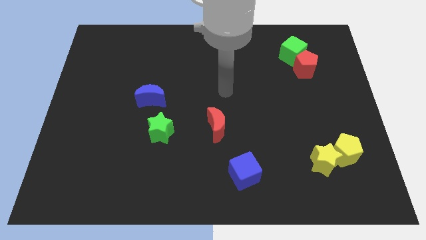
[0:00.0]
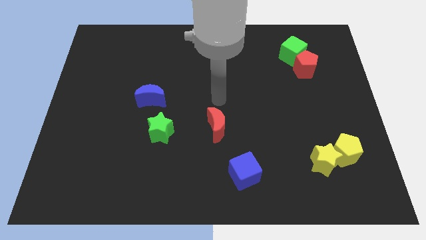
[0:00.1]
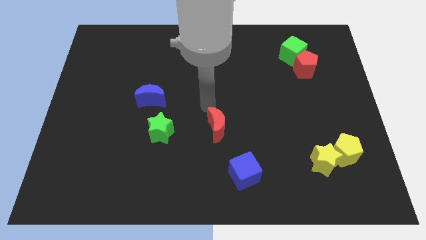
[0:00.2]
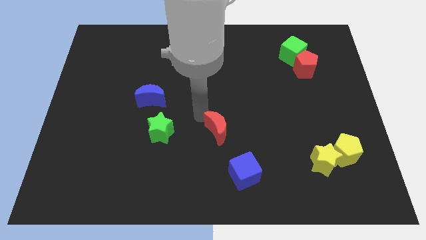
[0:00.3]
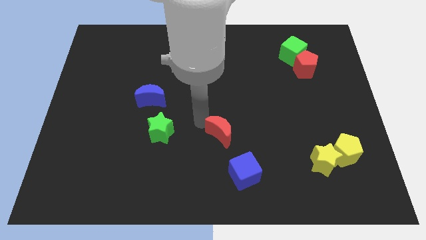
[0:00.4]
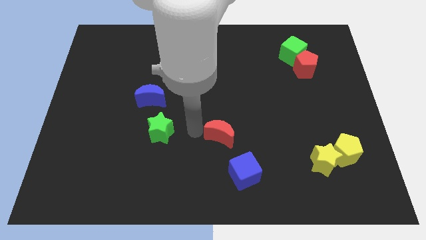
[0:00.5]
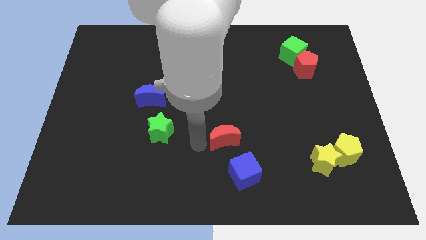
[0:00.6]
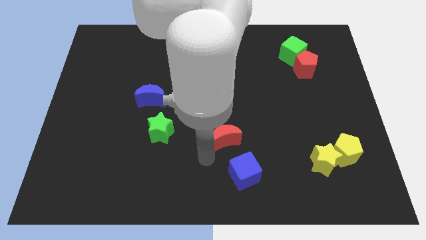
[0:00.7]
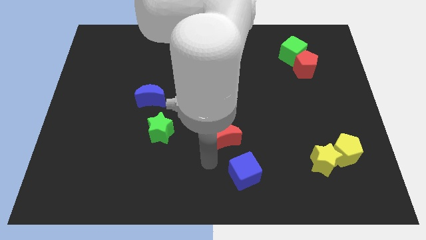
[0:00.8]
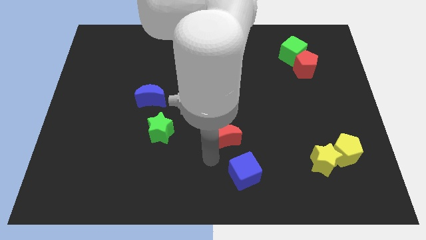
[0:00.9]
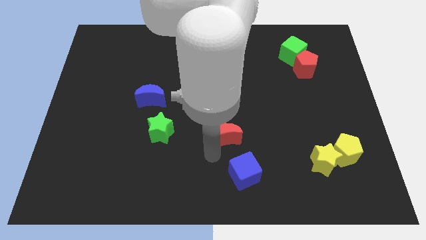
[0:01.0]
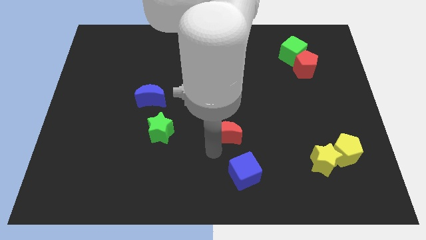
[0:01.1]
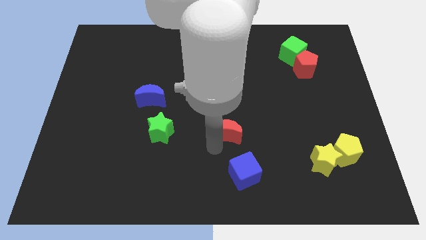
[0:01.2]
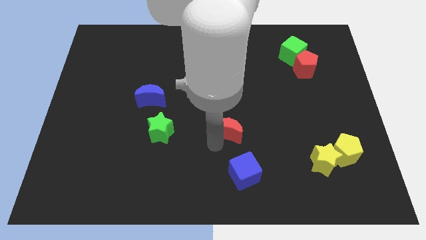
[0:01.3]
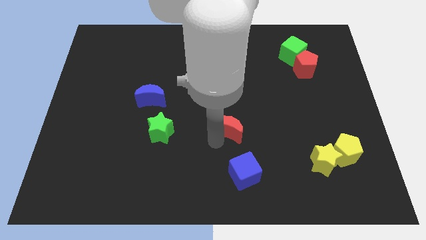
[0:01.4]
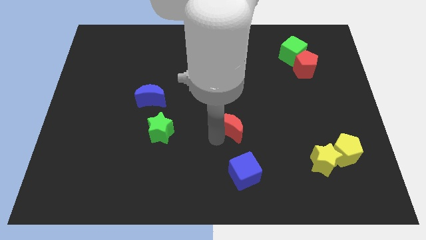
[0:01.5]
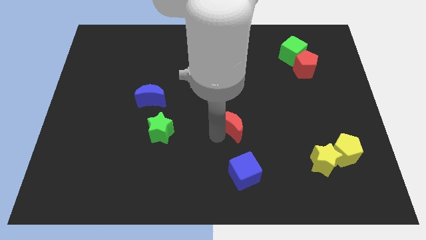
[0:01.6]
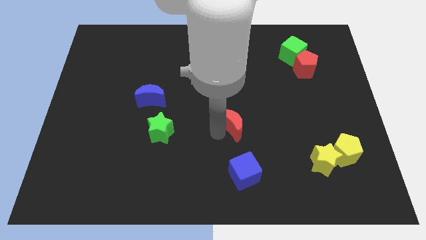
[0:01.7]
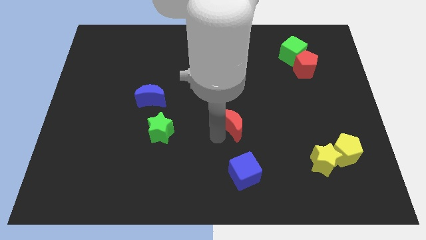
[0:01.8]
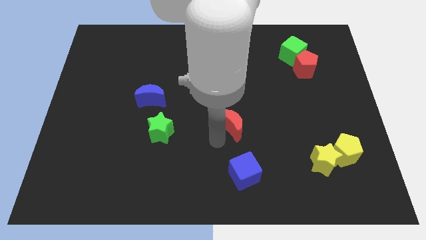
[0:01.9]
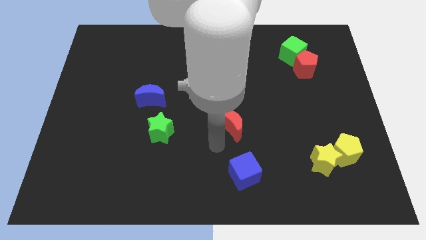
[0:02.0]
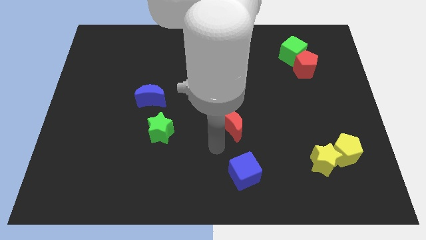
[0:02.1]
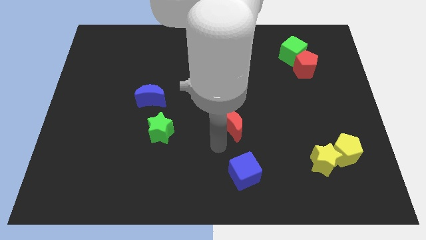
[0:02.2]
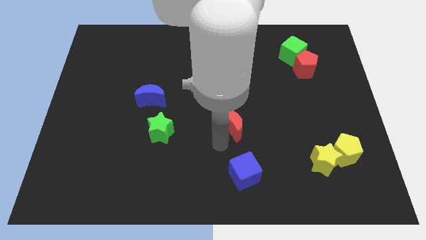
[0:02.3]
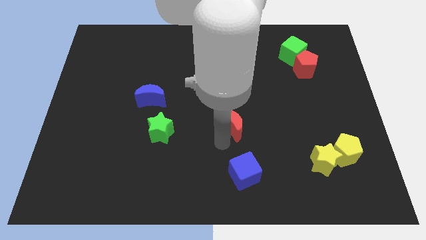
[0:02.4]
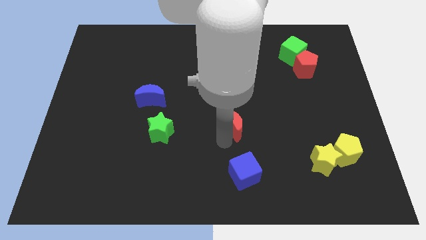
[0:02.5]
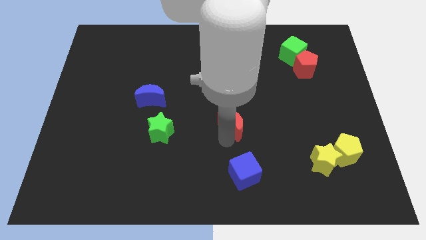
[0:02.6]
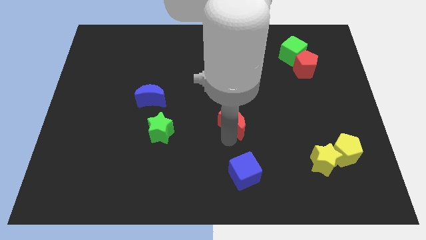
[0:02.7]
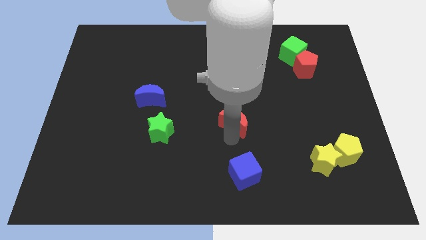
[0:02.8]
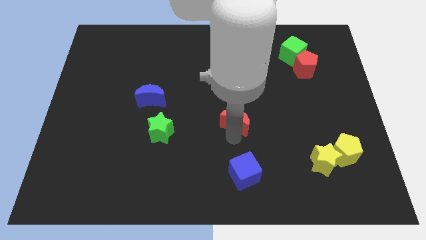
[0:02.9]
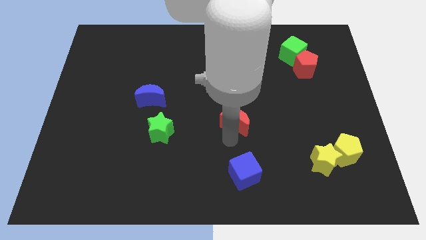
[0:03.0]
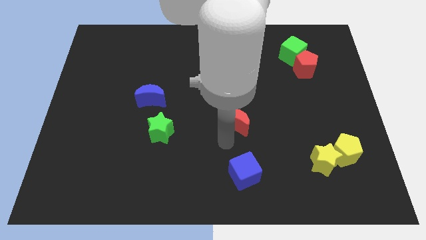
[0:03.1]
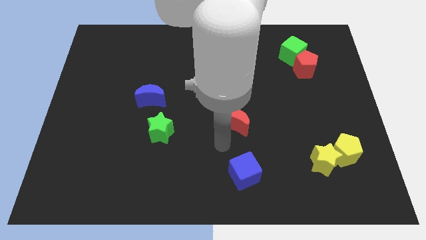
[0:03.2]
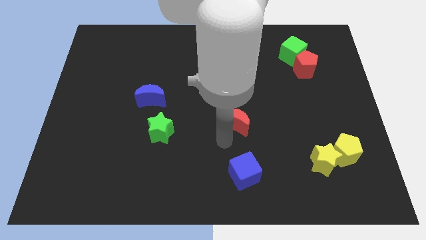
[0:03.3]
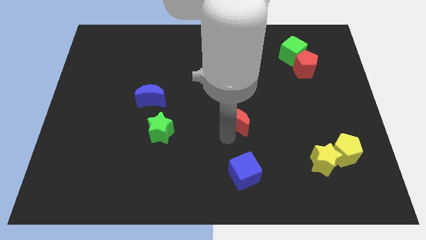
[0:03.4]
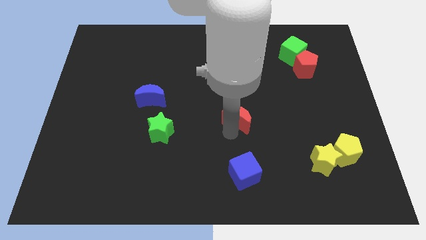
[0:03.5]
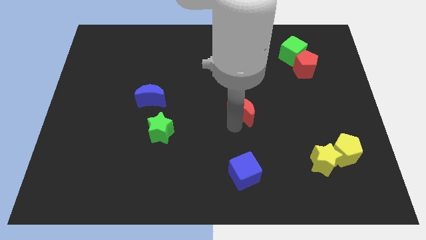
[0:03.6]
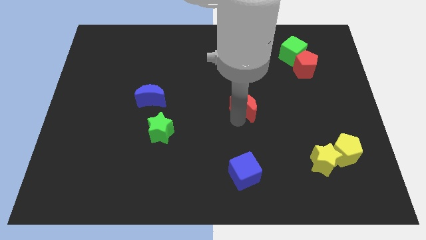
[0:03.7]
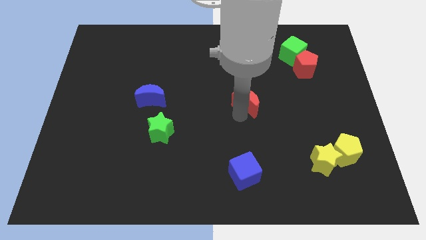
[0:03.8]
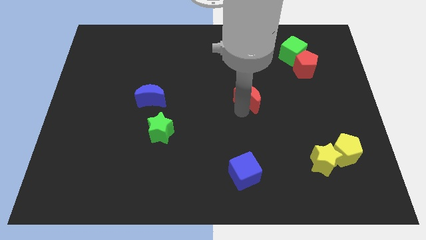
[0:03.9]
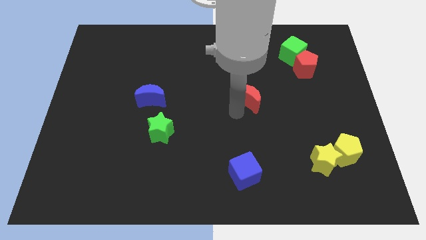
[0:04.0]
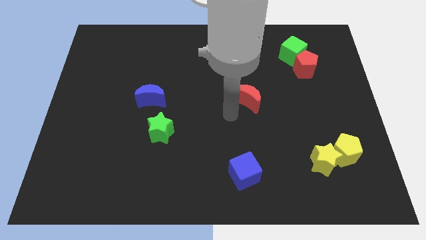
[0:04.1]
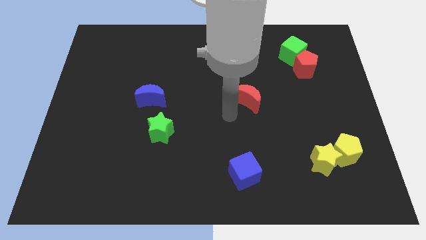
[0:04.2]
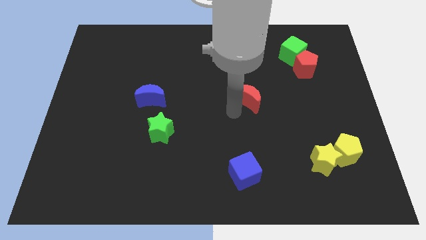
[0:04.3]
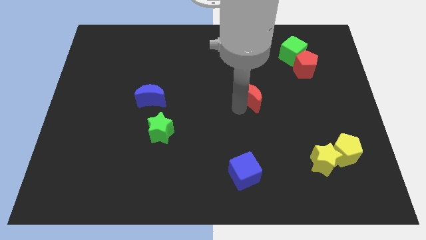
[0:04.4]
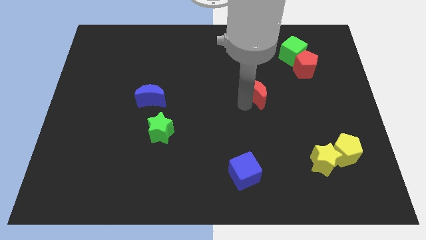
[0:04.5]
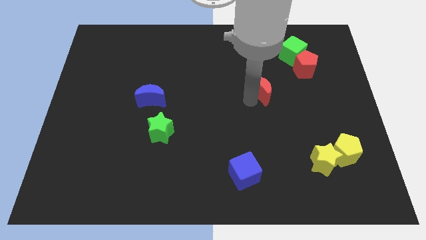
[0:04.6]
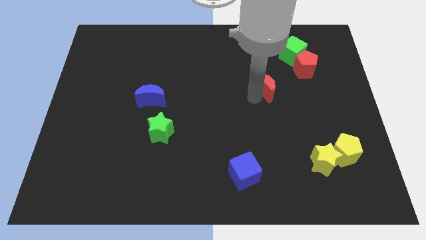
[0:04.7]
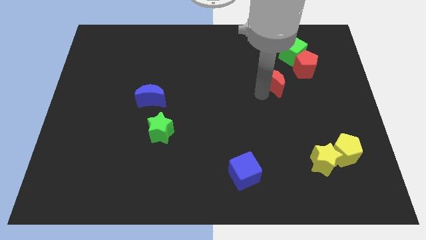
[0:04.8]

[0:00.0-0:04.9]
move the red moon diagonally down and to the left of the green cube

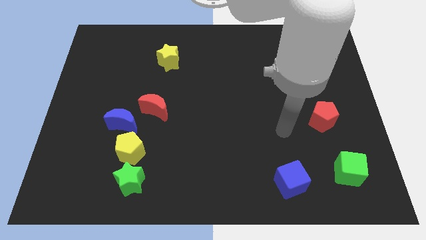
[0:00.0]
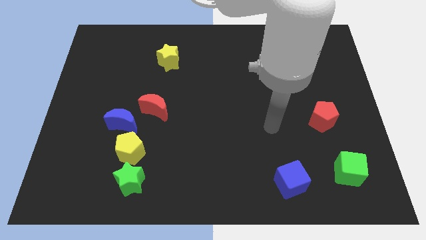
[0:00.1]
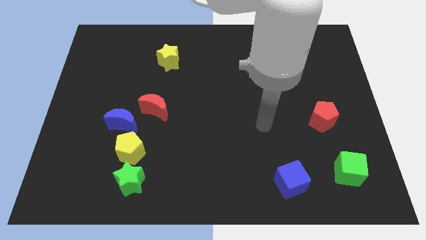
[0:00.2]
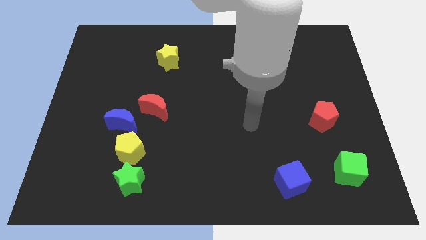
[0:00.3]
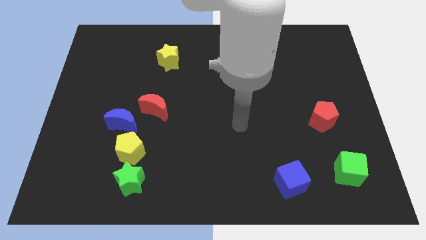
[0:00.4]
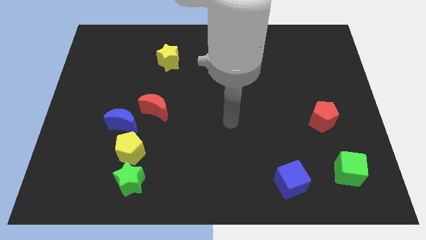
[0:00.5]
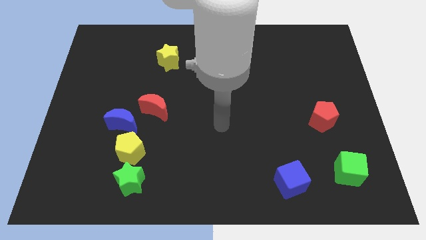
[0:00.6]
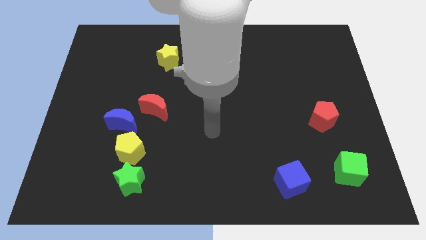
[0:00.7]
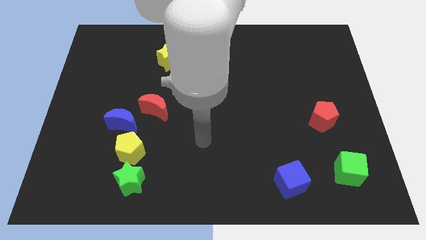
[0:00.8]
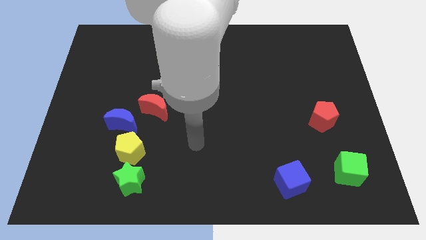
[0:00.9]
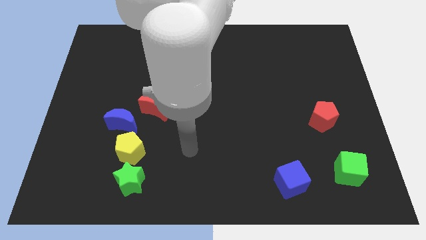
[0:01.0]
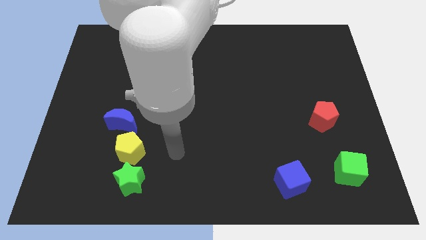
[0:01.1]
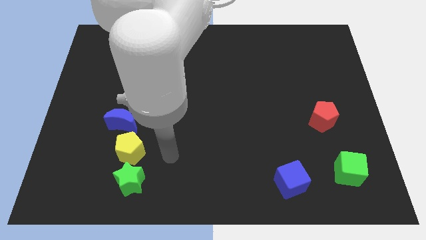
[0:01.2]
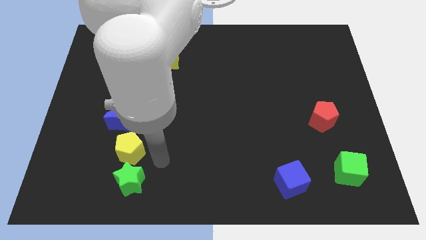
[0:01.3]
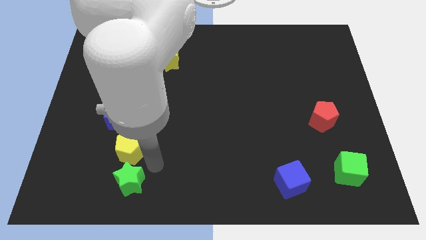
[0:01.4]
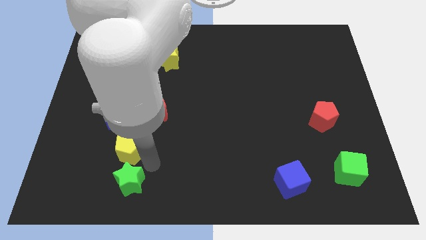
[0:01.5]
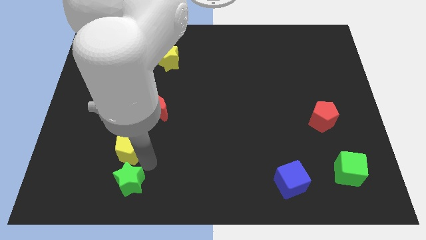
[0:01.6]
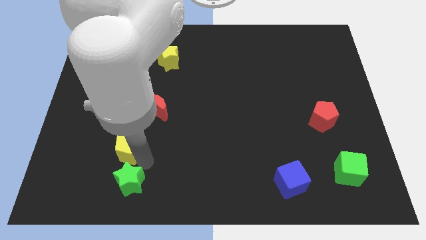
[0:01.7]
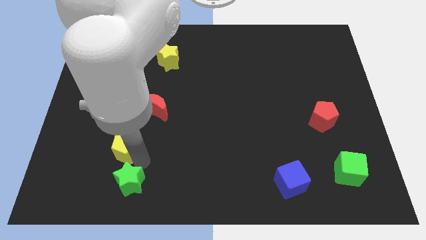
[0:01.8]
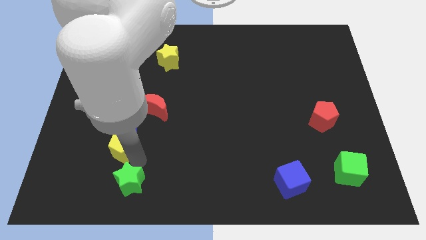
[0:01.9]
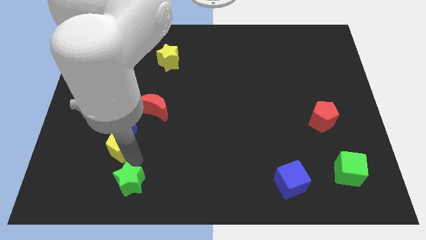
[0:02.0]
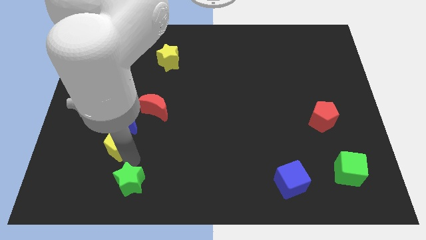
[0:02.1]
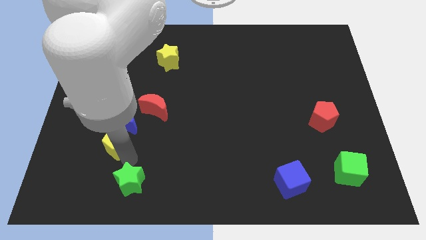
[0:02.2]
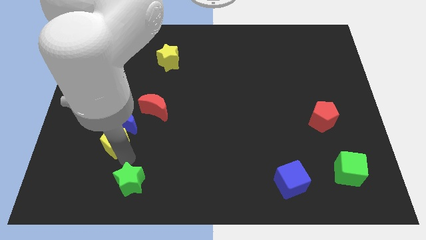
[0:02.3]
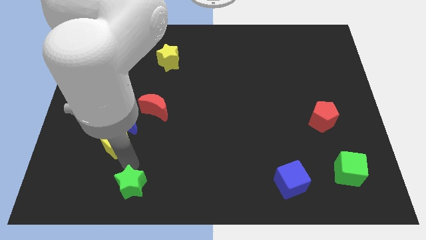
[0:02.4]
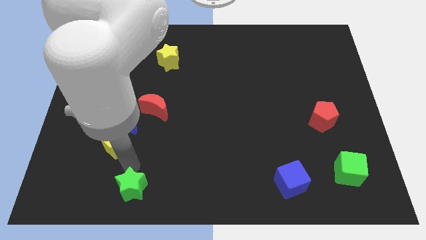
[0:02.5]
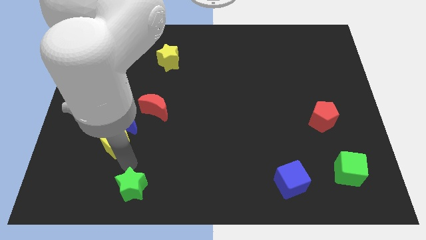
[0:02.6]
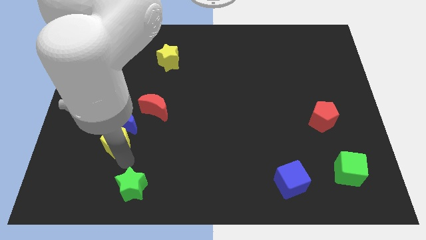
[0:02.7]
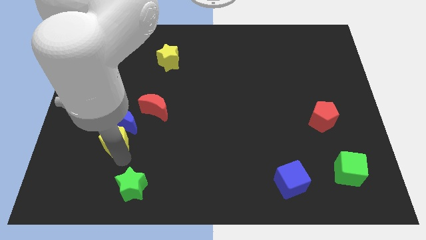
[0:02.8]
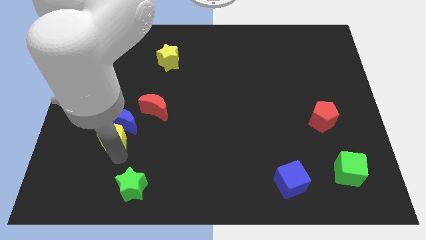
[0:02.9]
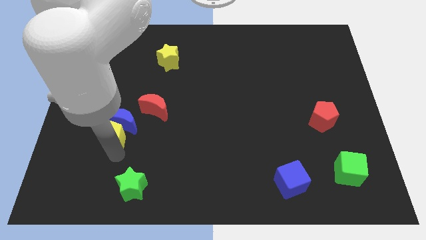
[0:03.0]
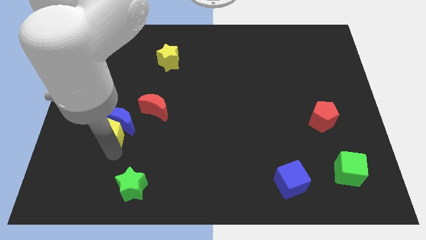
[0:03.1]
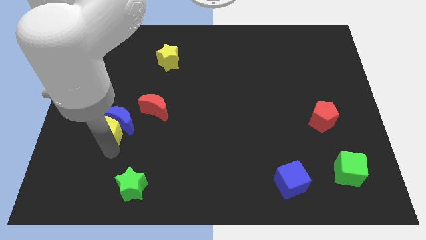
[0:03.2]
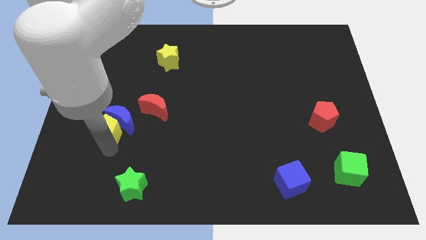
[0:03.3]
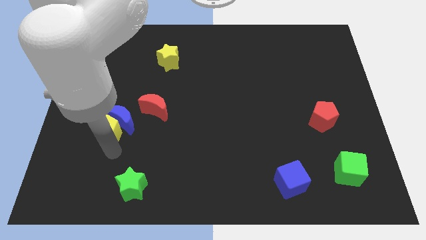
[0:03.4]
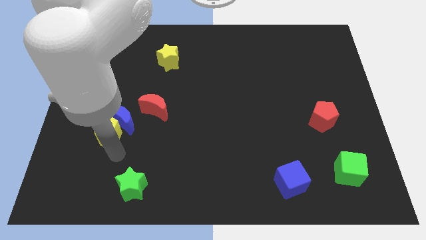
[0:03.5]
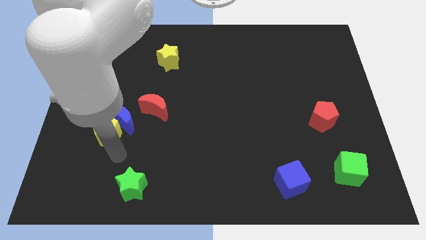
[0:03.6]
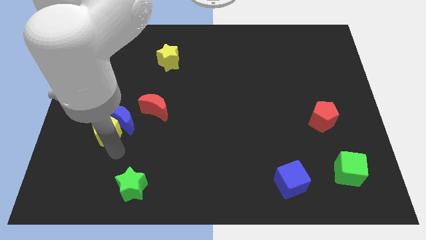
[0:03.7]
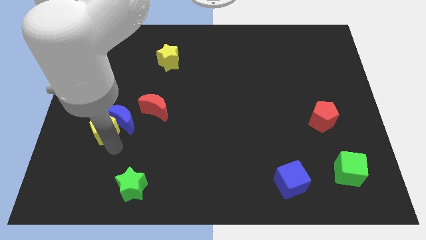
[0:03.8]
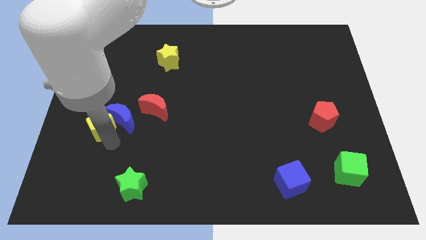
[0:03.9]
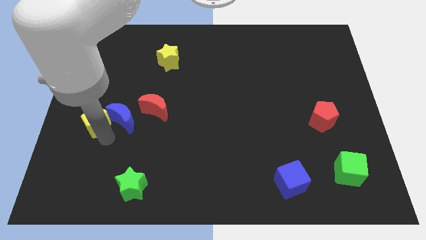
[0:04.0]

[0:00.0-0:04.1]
slide the yellow pentagon left of the red moon
